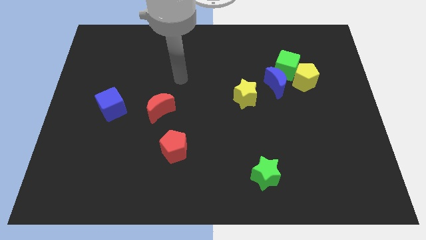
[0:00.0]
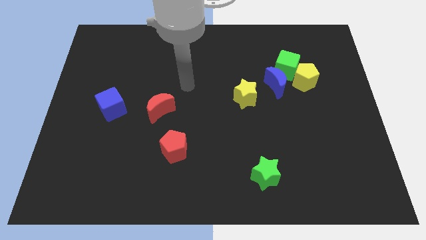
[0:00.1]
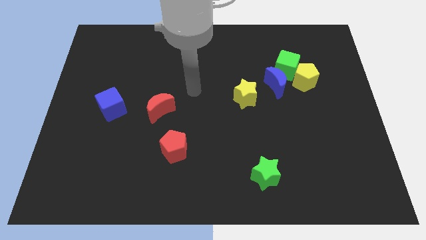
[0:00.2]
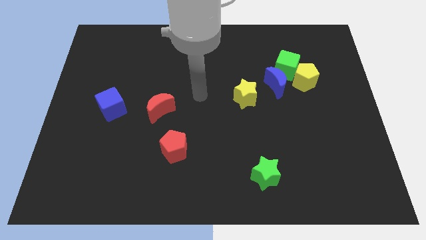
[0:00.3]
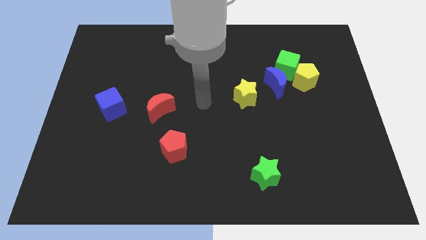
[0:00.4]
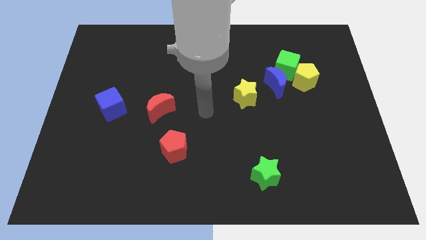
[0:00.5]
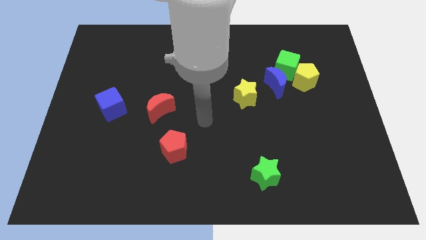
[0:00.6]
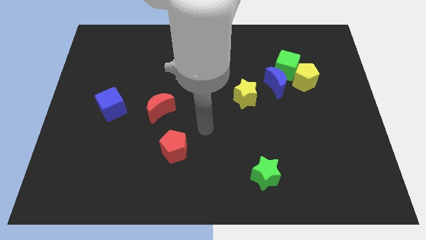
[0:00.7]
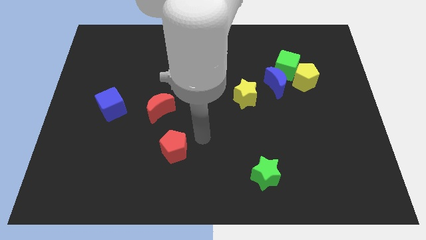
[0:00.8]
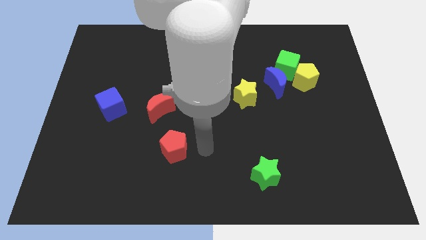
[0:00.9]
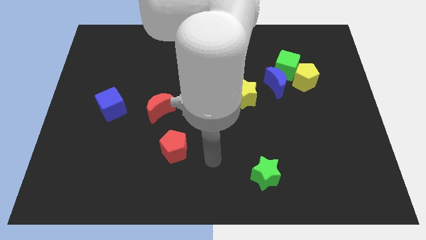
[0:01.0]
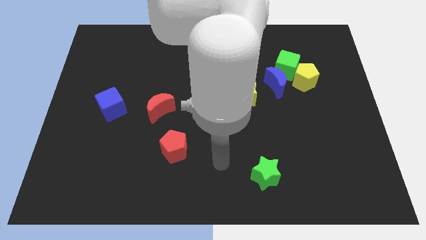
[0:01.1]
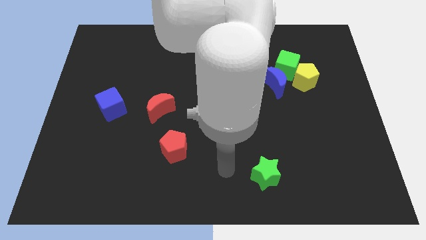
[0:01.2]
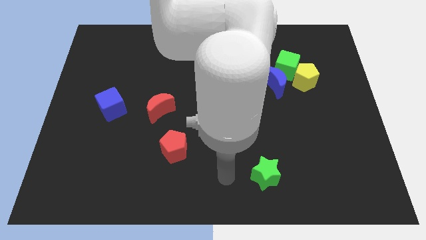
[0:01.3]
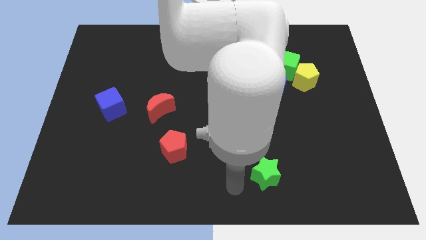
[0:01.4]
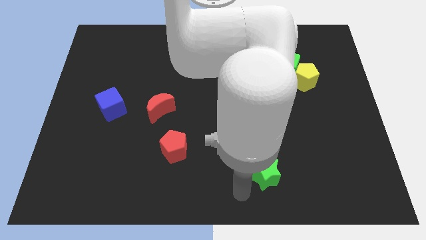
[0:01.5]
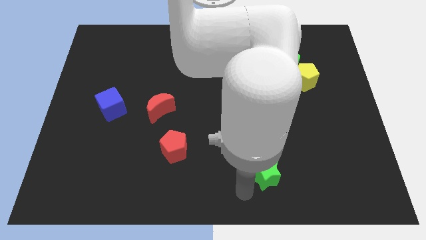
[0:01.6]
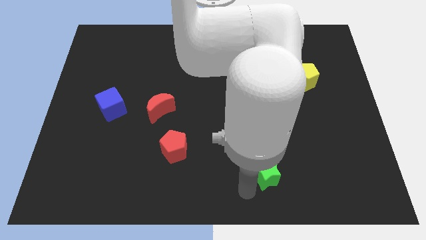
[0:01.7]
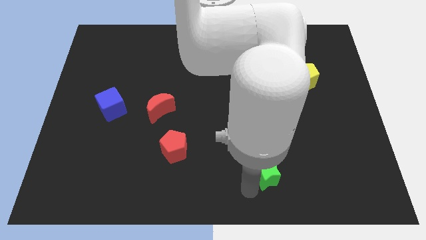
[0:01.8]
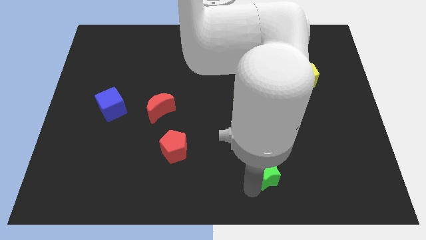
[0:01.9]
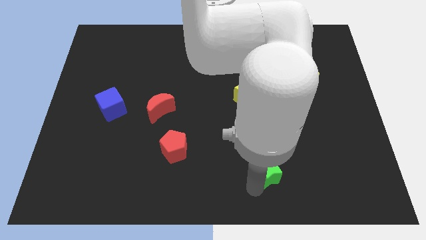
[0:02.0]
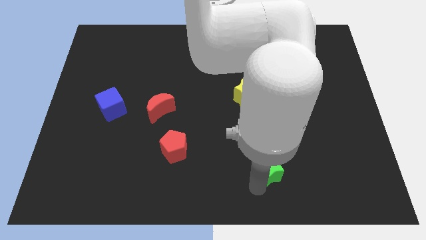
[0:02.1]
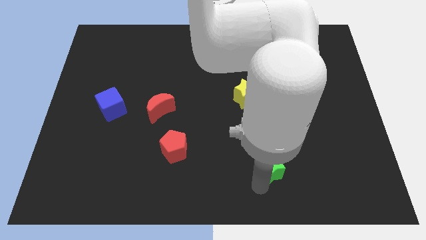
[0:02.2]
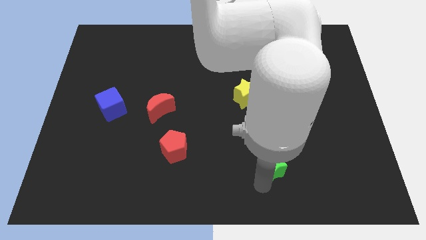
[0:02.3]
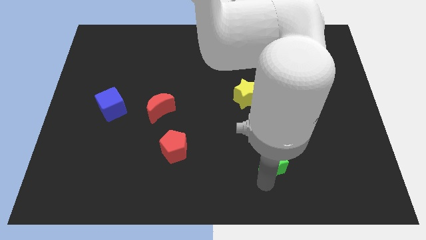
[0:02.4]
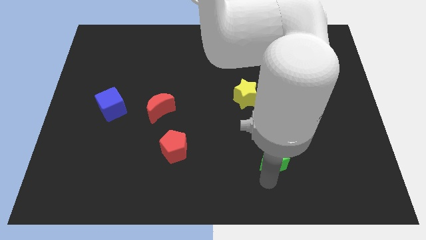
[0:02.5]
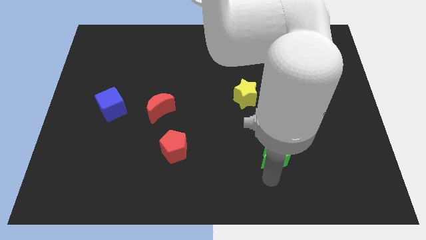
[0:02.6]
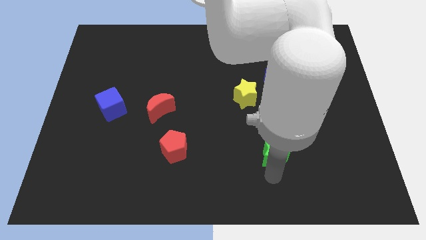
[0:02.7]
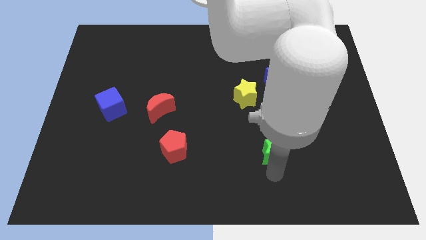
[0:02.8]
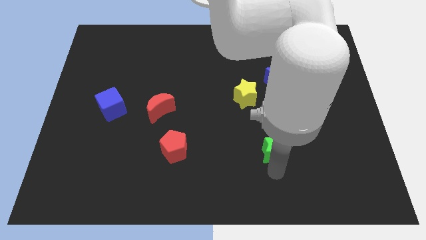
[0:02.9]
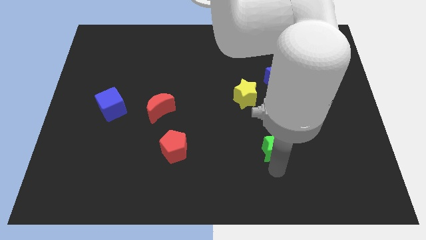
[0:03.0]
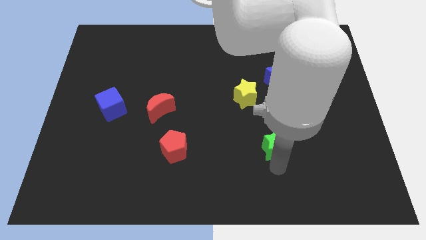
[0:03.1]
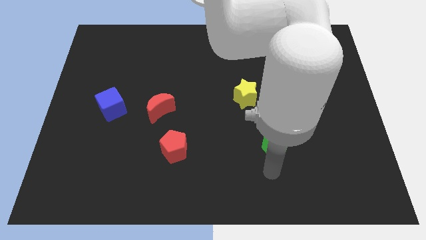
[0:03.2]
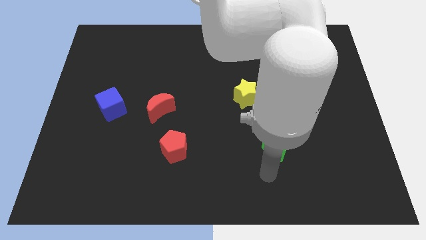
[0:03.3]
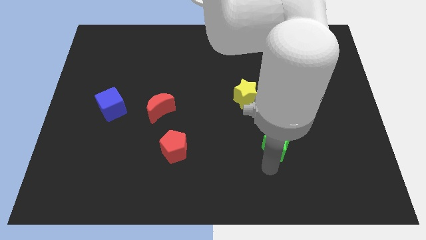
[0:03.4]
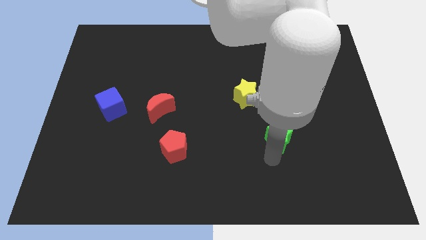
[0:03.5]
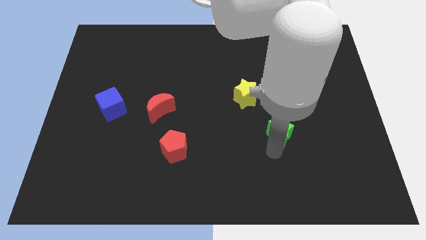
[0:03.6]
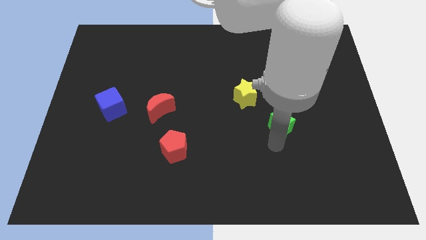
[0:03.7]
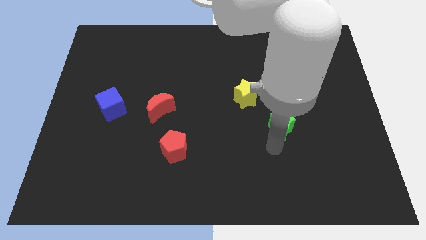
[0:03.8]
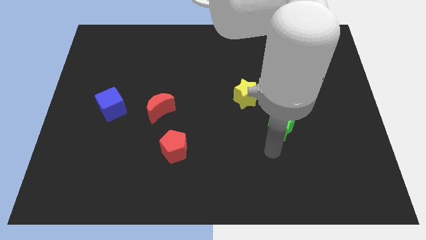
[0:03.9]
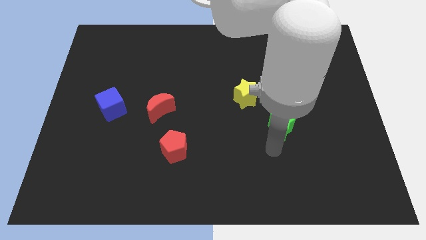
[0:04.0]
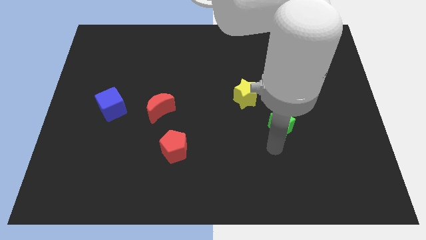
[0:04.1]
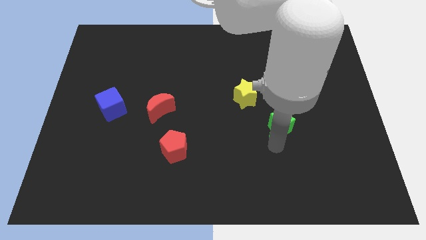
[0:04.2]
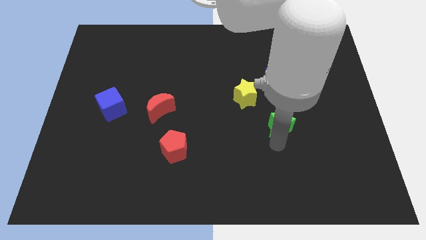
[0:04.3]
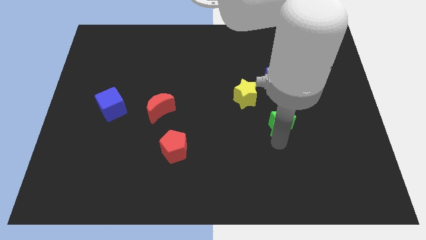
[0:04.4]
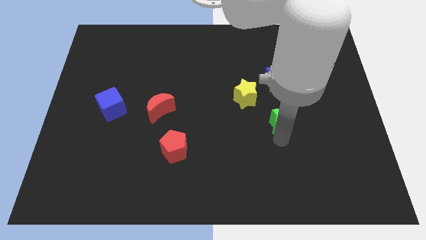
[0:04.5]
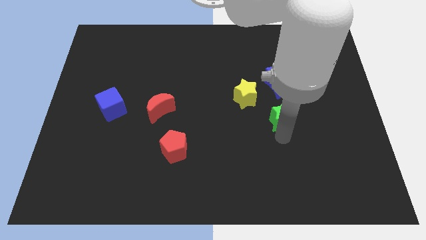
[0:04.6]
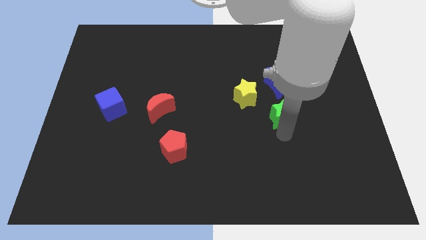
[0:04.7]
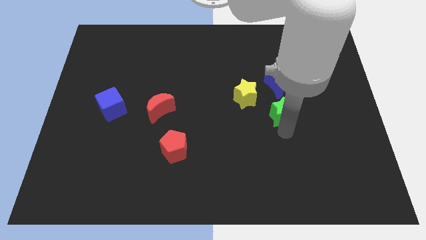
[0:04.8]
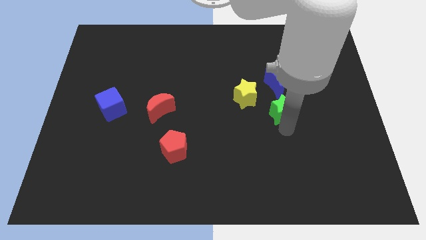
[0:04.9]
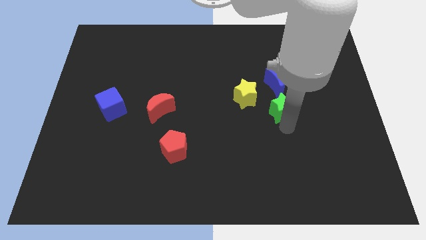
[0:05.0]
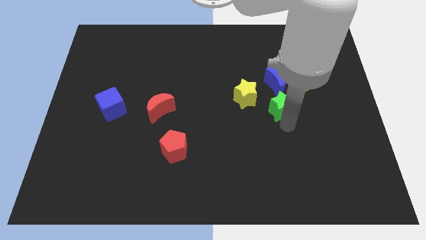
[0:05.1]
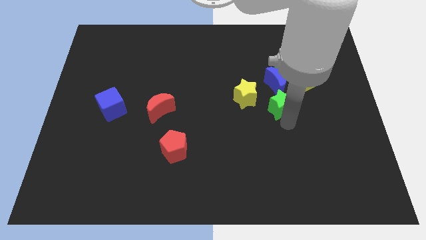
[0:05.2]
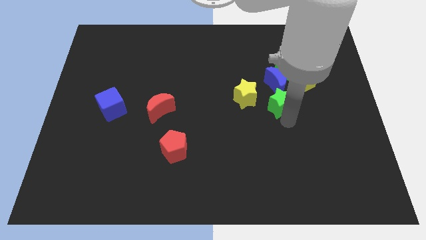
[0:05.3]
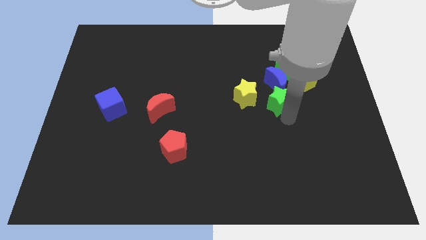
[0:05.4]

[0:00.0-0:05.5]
slide the green star next to the blue moon

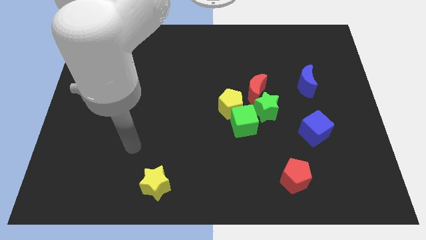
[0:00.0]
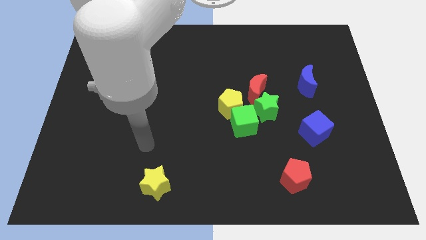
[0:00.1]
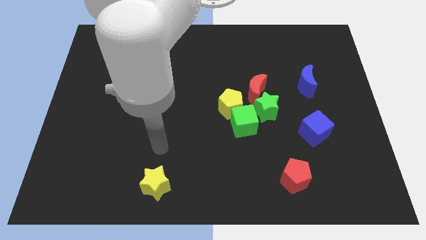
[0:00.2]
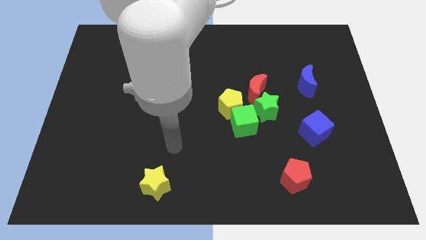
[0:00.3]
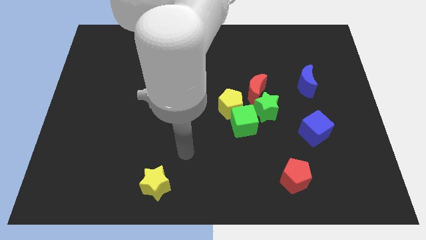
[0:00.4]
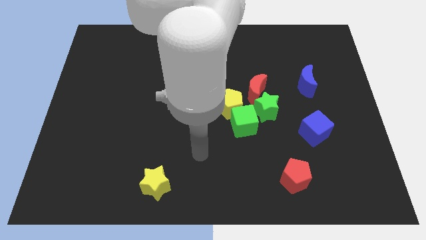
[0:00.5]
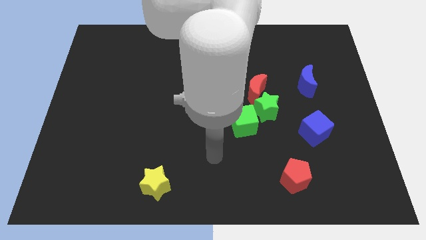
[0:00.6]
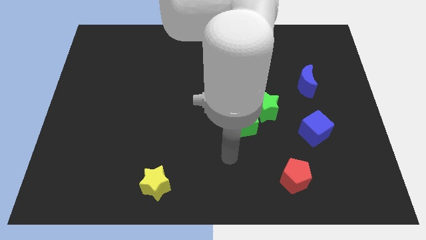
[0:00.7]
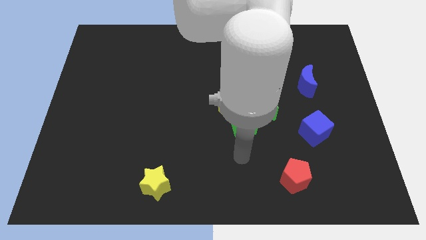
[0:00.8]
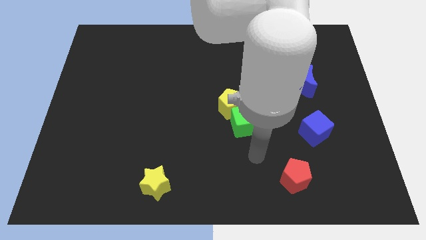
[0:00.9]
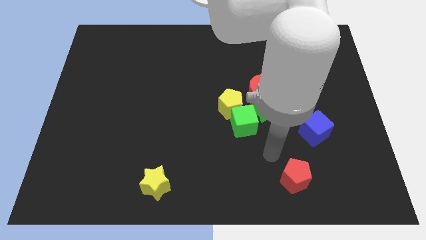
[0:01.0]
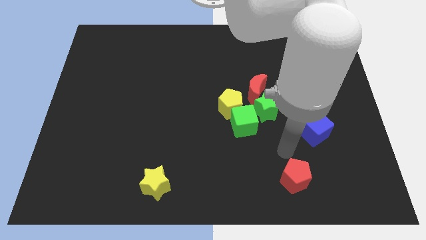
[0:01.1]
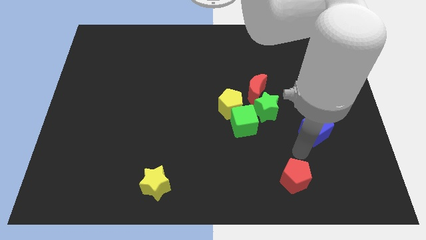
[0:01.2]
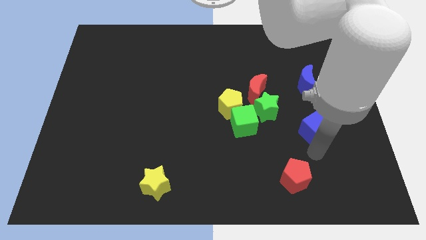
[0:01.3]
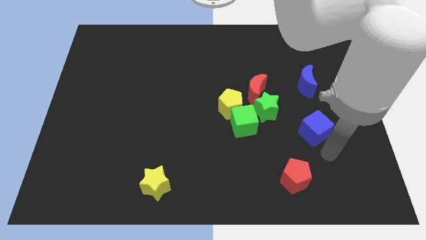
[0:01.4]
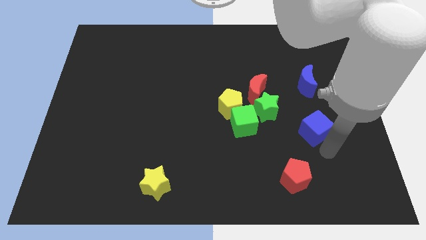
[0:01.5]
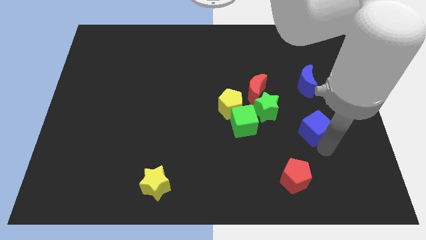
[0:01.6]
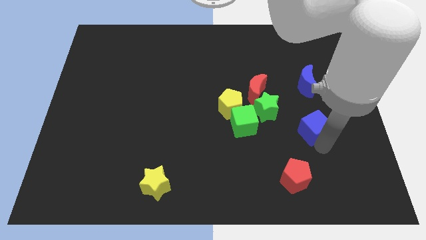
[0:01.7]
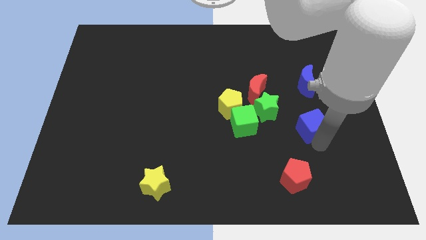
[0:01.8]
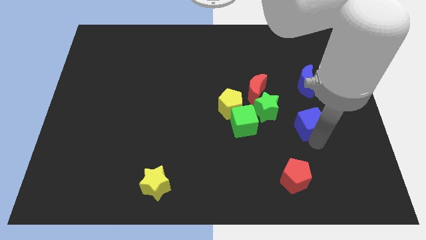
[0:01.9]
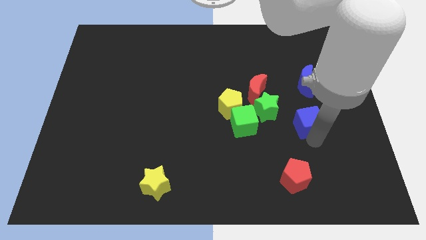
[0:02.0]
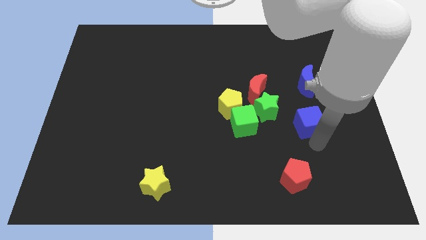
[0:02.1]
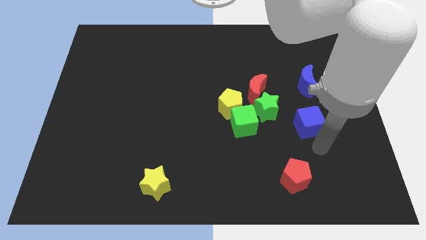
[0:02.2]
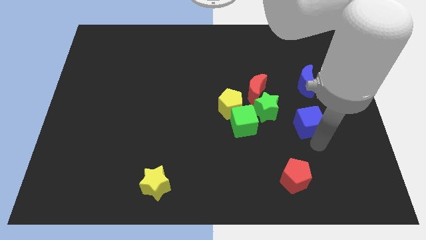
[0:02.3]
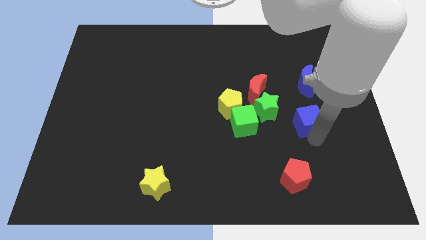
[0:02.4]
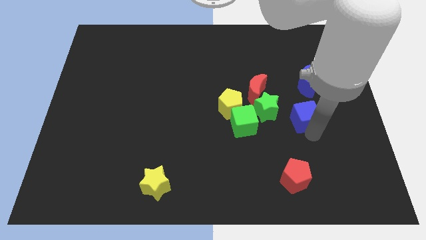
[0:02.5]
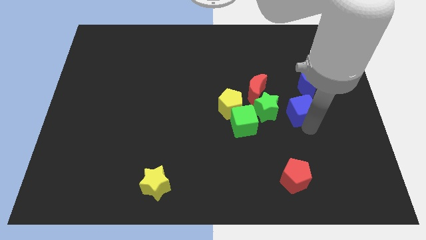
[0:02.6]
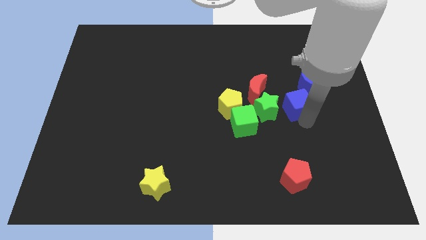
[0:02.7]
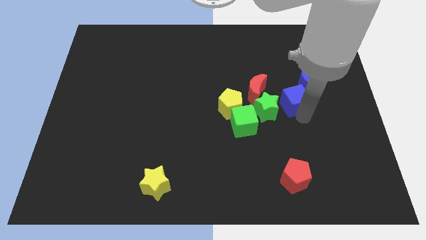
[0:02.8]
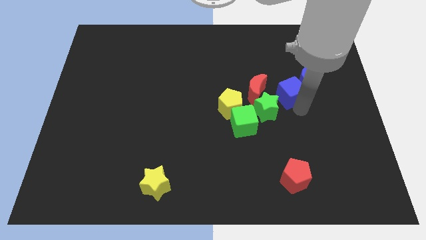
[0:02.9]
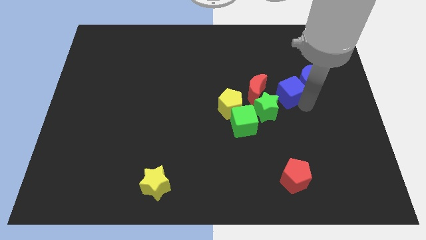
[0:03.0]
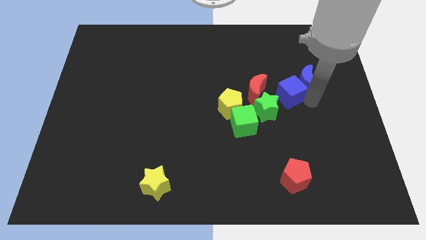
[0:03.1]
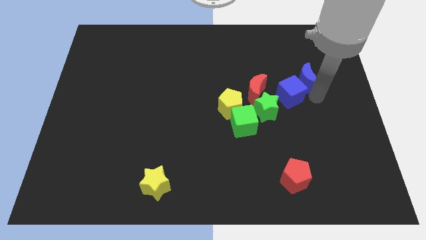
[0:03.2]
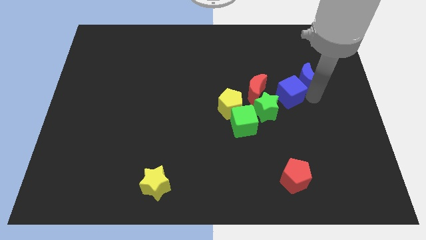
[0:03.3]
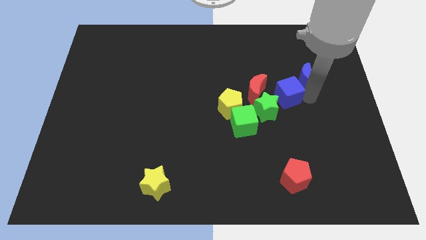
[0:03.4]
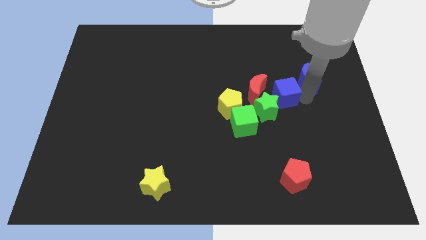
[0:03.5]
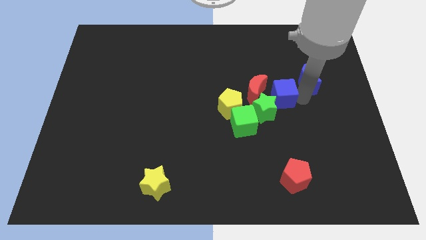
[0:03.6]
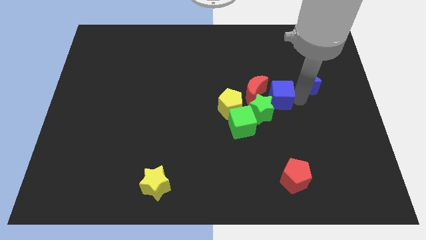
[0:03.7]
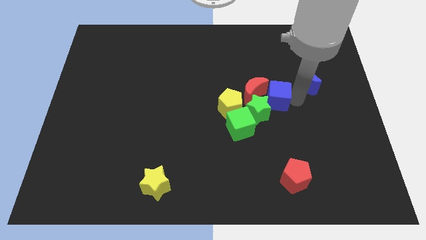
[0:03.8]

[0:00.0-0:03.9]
put the blue cube close to the red moon
